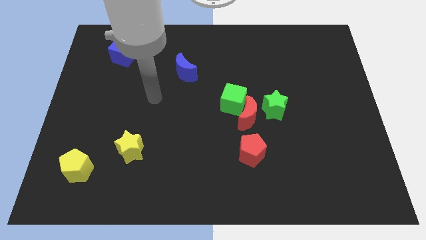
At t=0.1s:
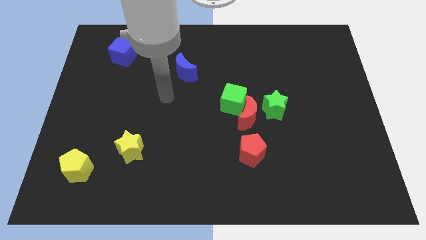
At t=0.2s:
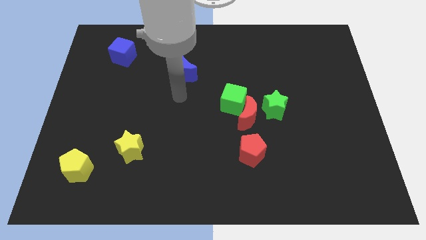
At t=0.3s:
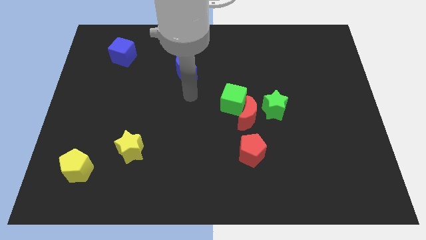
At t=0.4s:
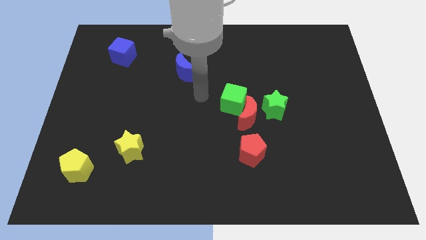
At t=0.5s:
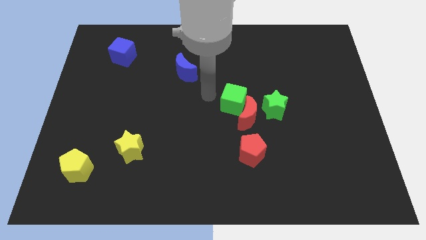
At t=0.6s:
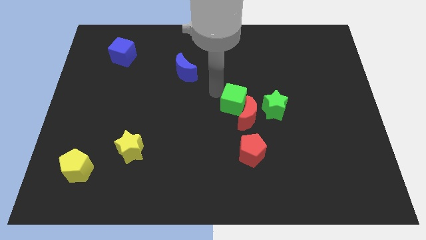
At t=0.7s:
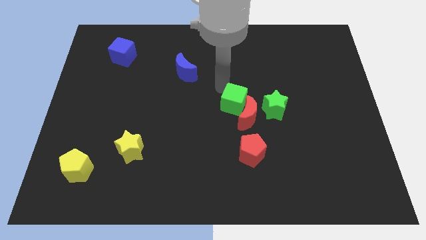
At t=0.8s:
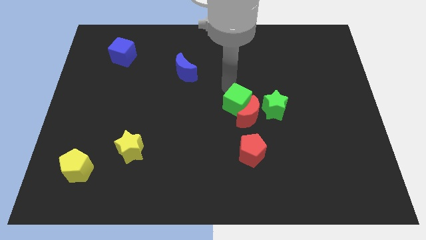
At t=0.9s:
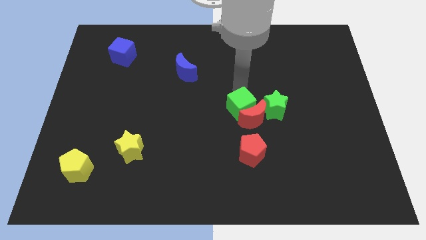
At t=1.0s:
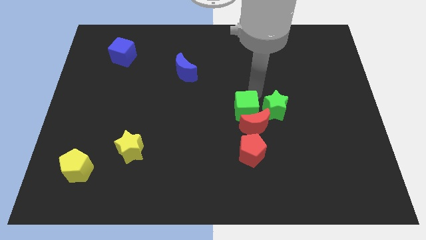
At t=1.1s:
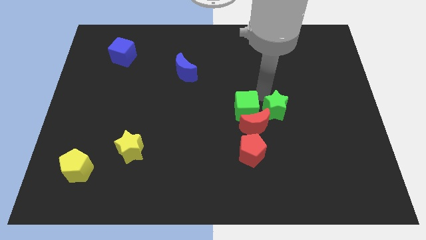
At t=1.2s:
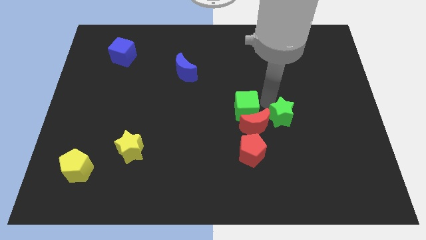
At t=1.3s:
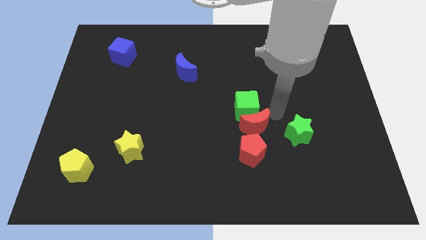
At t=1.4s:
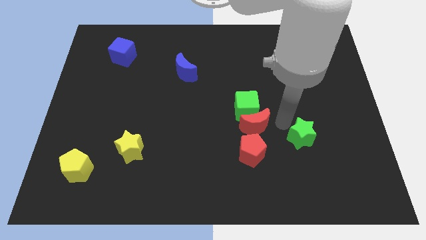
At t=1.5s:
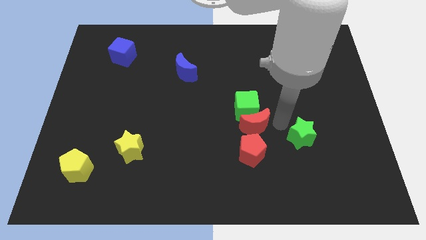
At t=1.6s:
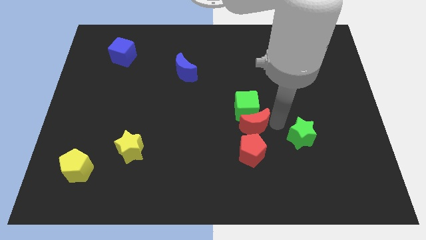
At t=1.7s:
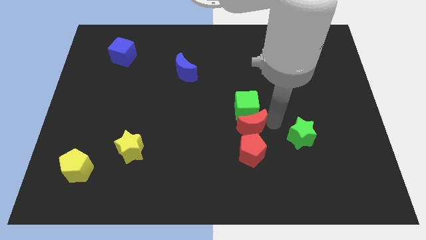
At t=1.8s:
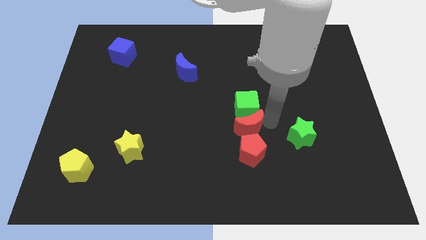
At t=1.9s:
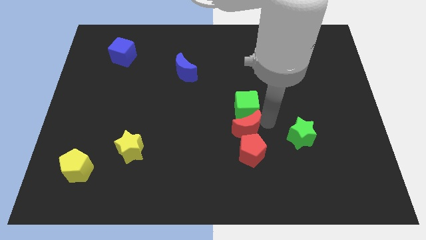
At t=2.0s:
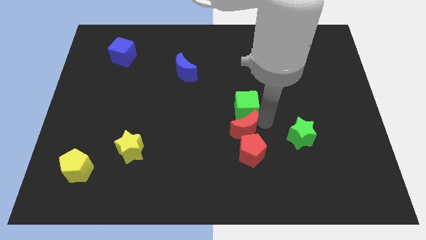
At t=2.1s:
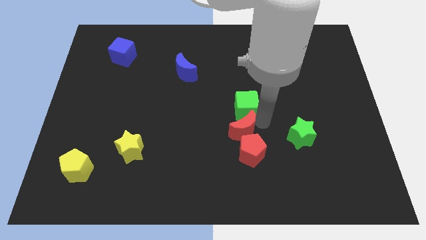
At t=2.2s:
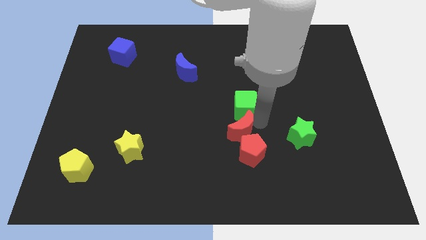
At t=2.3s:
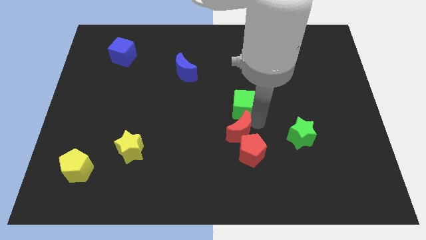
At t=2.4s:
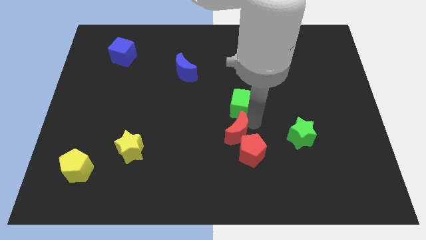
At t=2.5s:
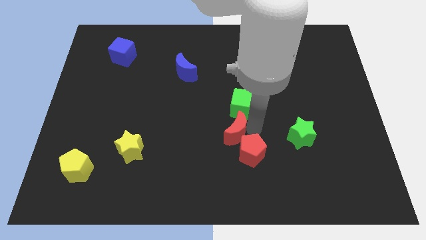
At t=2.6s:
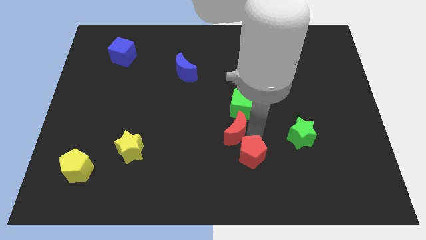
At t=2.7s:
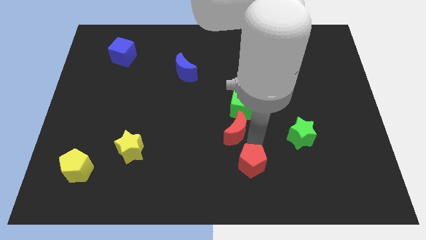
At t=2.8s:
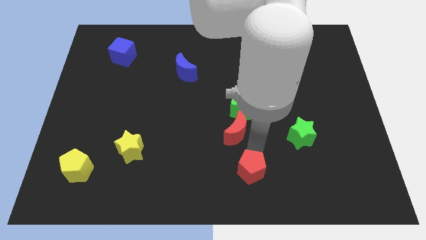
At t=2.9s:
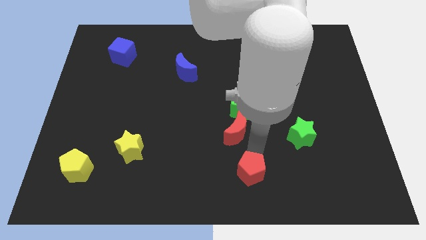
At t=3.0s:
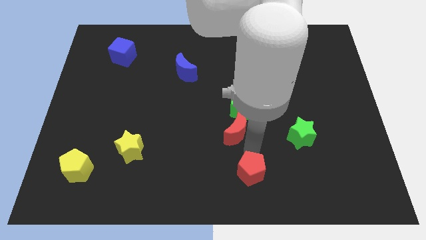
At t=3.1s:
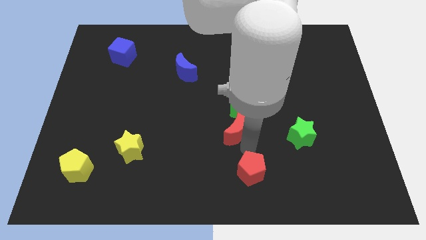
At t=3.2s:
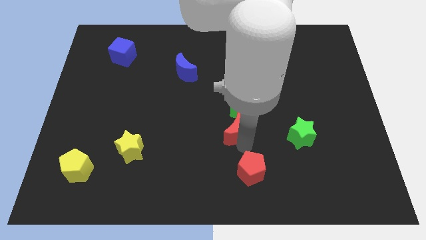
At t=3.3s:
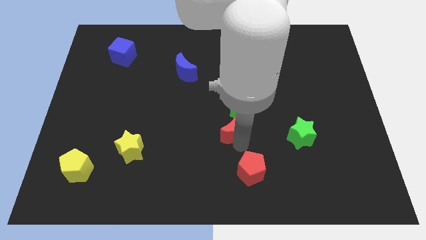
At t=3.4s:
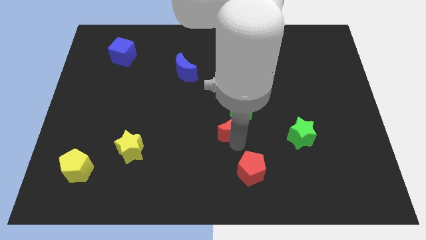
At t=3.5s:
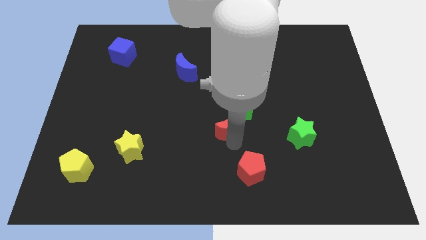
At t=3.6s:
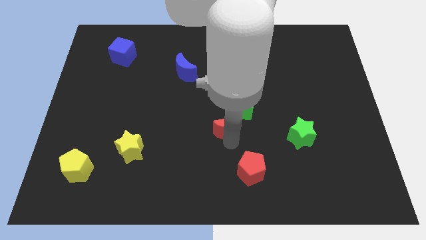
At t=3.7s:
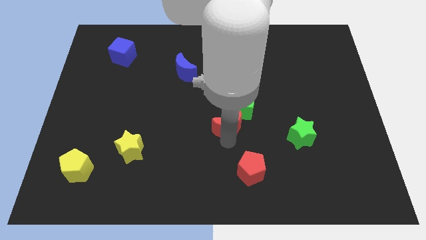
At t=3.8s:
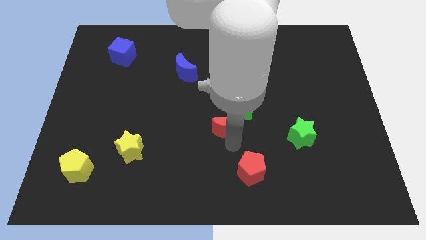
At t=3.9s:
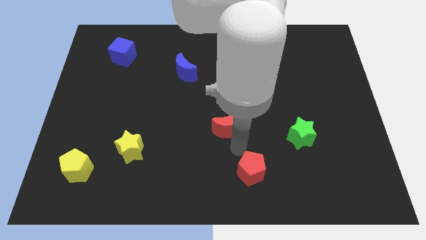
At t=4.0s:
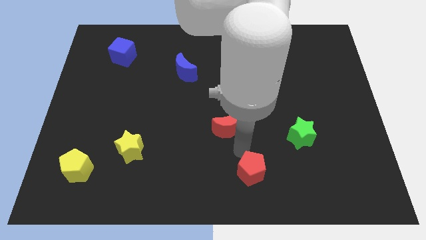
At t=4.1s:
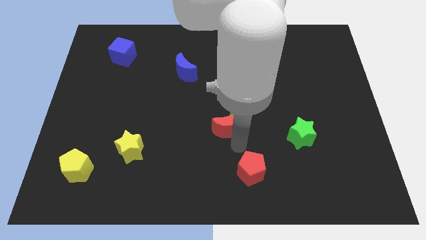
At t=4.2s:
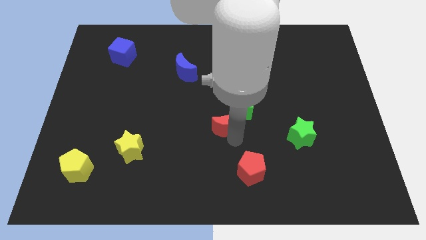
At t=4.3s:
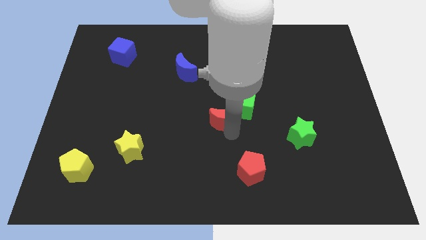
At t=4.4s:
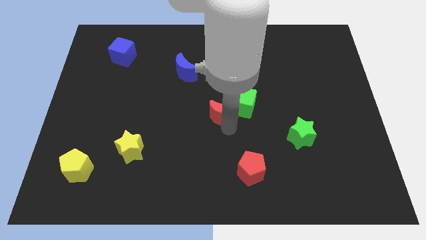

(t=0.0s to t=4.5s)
move the red moon away from the clump

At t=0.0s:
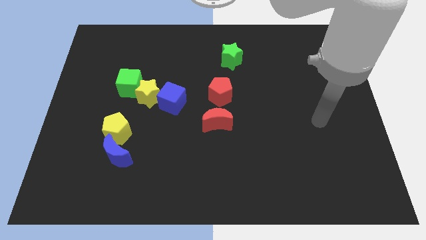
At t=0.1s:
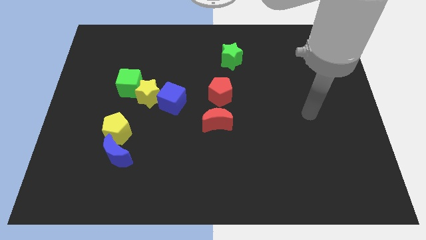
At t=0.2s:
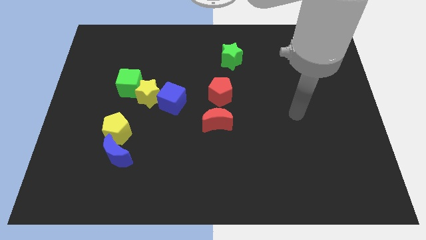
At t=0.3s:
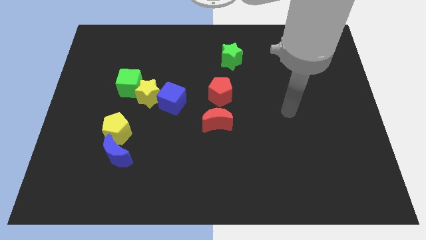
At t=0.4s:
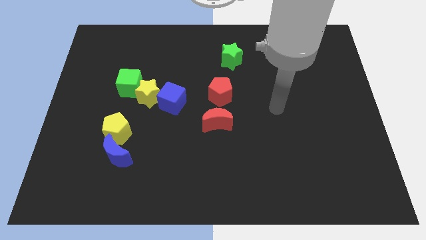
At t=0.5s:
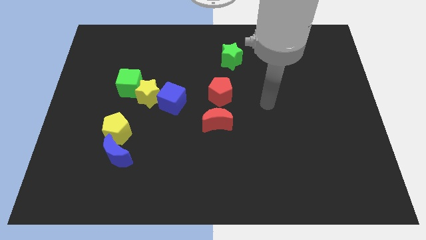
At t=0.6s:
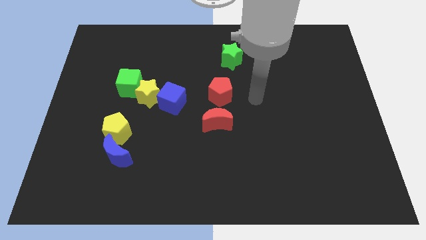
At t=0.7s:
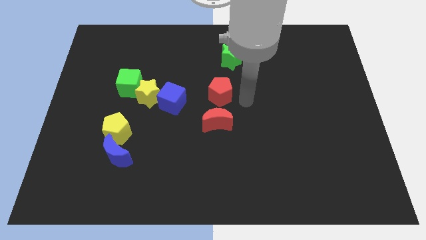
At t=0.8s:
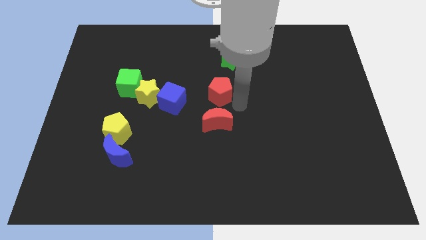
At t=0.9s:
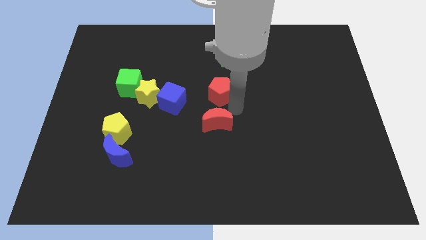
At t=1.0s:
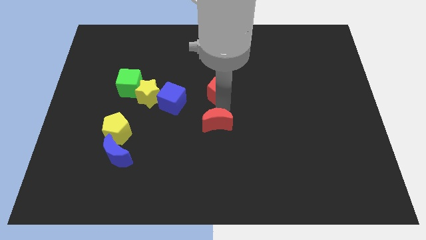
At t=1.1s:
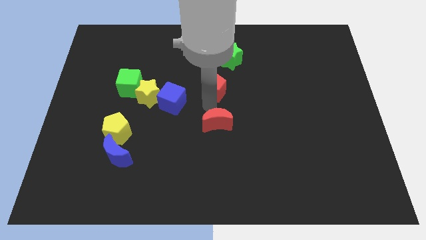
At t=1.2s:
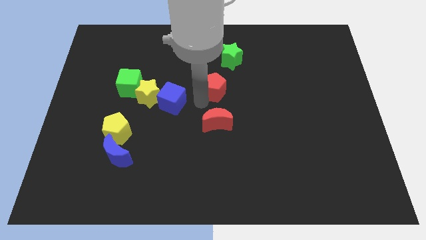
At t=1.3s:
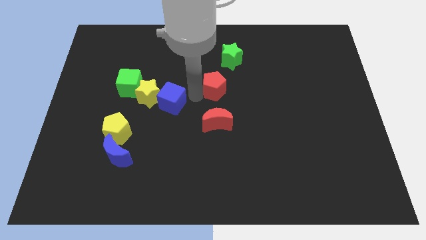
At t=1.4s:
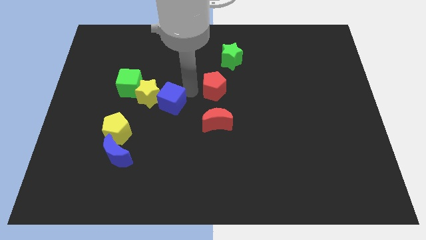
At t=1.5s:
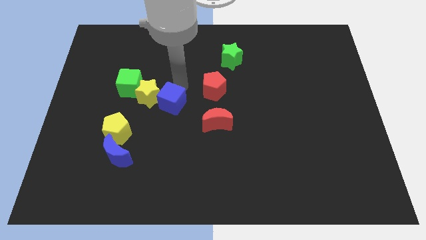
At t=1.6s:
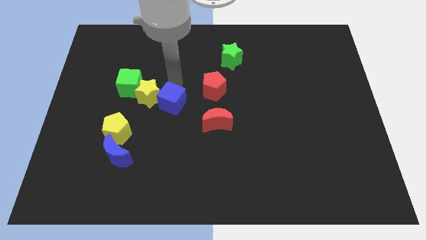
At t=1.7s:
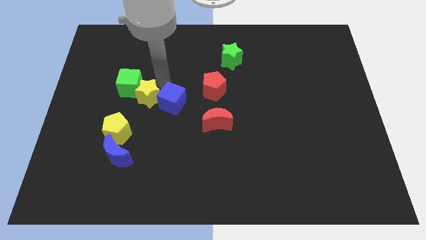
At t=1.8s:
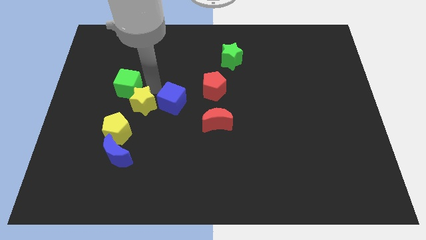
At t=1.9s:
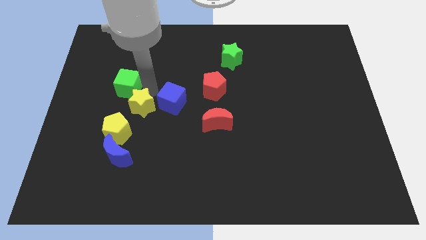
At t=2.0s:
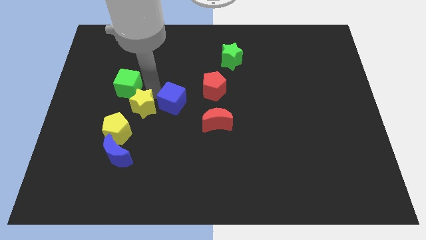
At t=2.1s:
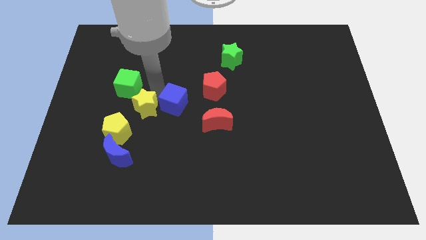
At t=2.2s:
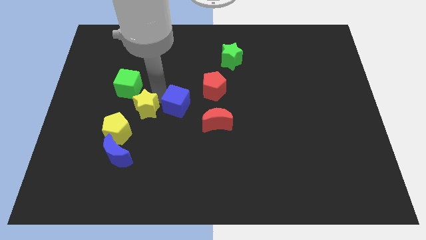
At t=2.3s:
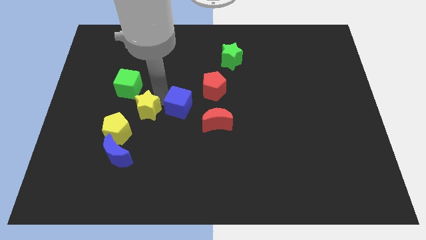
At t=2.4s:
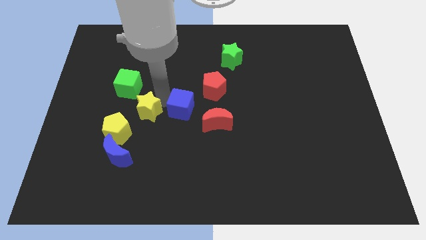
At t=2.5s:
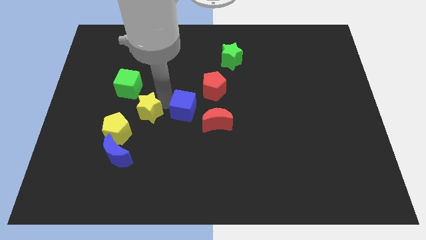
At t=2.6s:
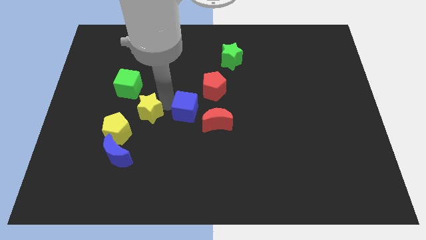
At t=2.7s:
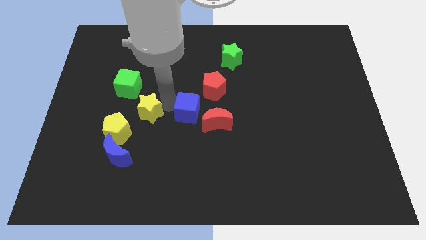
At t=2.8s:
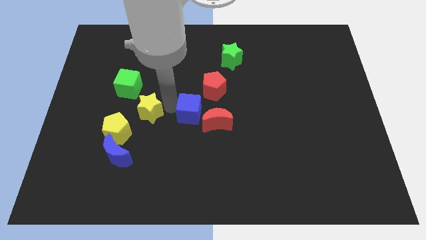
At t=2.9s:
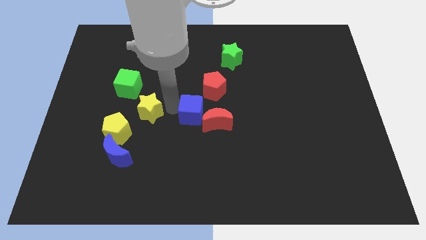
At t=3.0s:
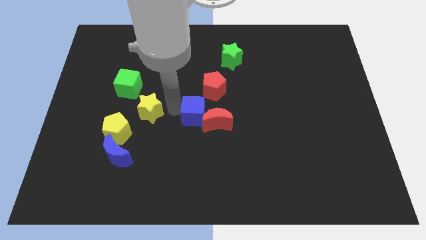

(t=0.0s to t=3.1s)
pull the blue cube apart from the yellow star

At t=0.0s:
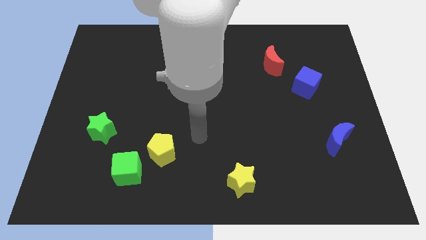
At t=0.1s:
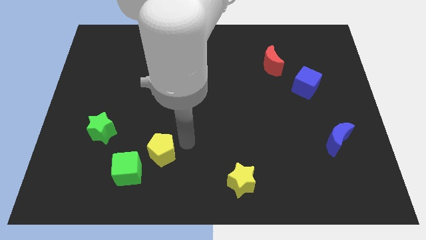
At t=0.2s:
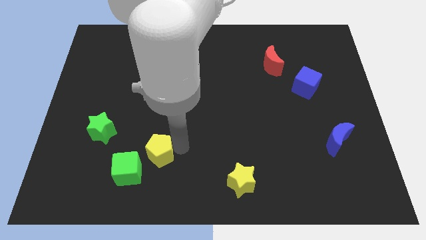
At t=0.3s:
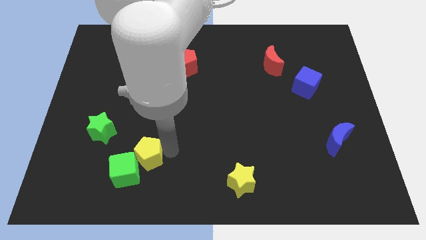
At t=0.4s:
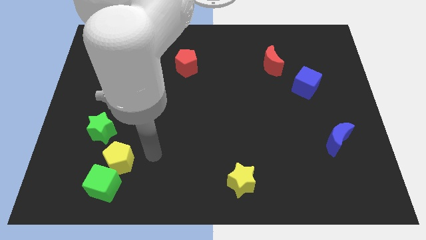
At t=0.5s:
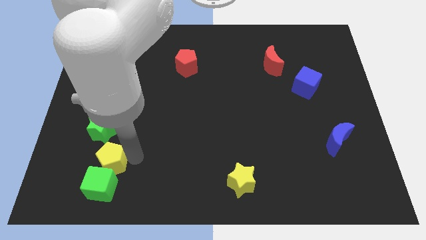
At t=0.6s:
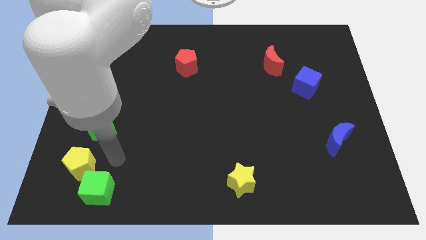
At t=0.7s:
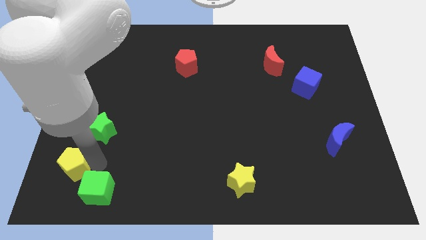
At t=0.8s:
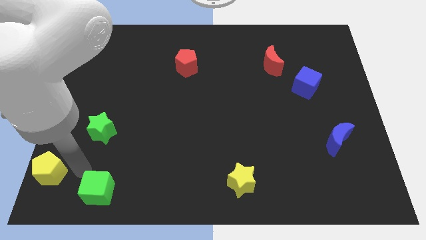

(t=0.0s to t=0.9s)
pull the green cube apart from the yellow pentagon

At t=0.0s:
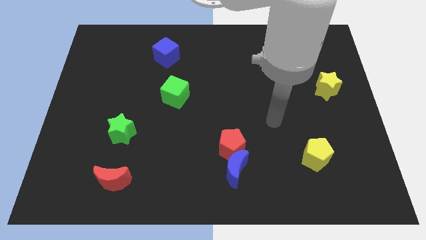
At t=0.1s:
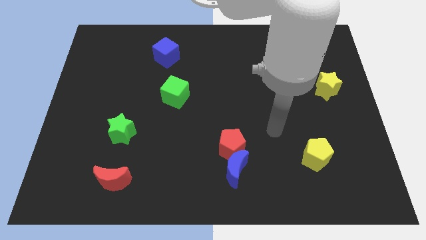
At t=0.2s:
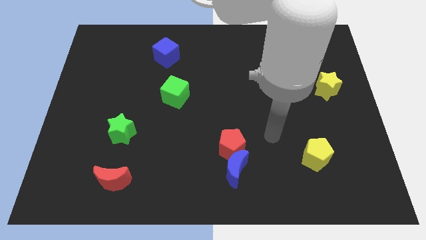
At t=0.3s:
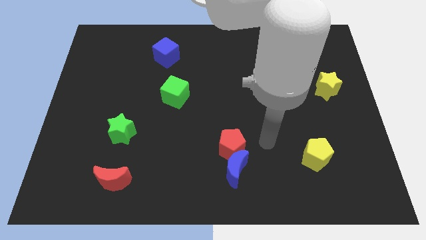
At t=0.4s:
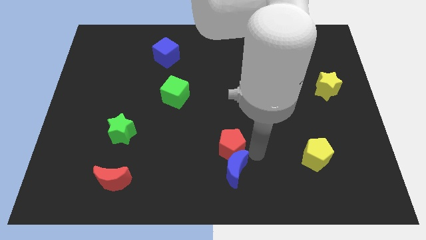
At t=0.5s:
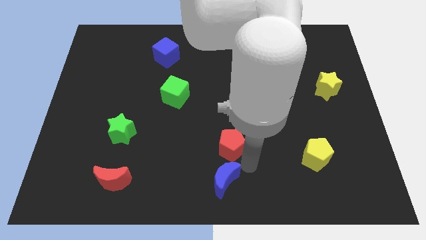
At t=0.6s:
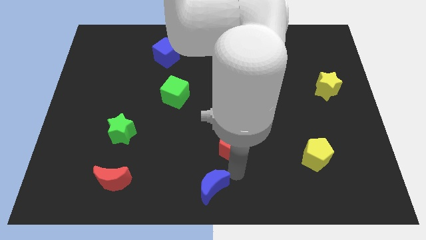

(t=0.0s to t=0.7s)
separate the red pentagon from the blue moon

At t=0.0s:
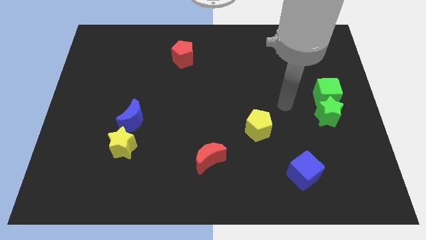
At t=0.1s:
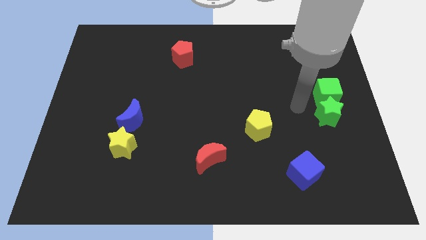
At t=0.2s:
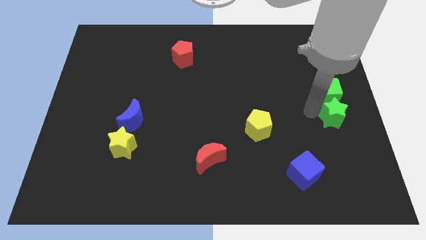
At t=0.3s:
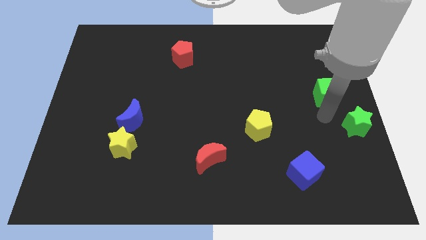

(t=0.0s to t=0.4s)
separate the green cube from the green star
